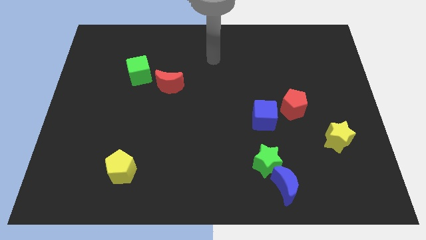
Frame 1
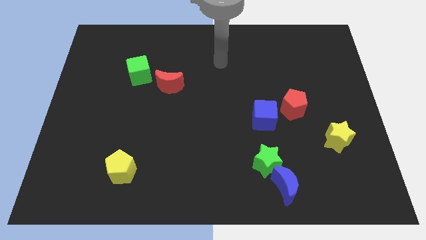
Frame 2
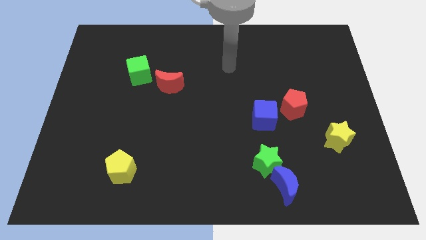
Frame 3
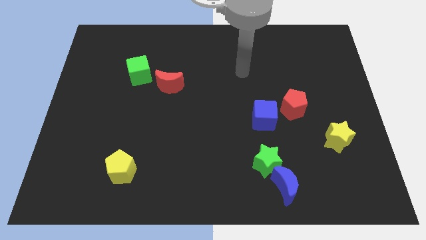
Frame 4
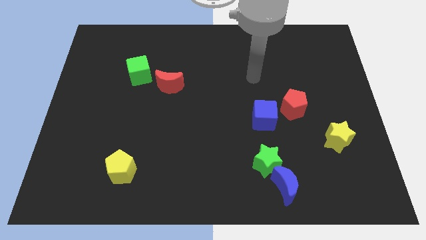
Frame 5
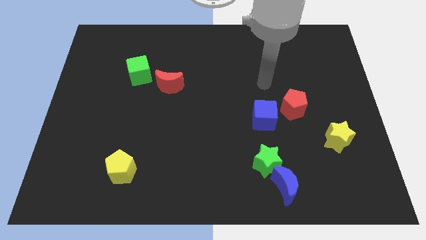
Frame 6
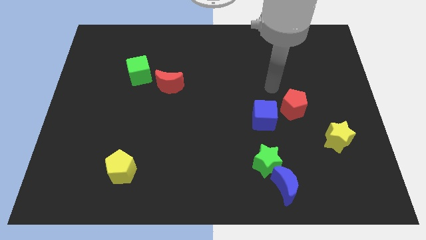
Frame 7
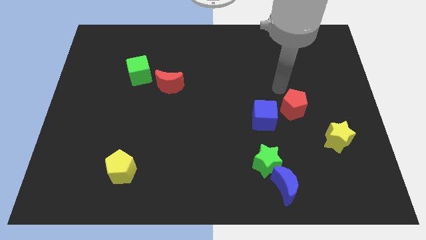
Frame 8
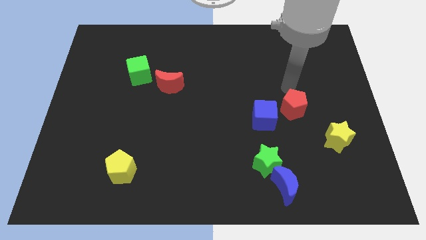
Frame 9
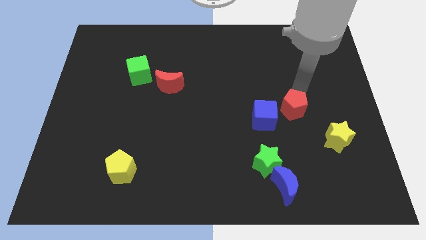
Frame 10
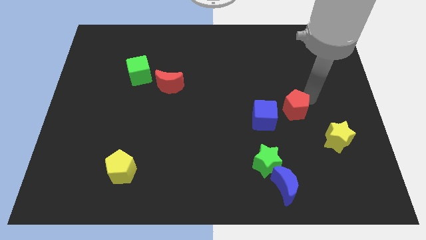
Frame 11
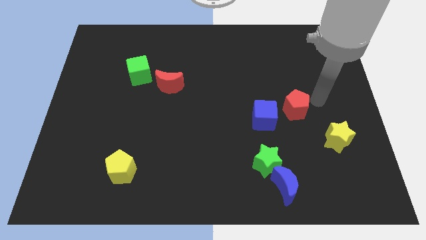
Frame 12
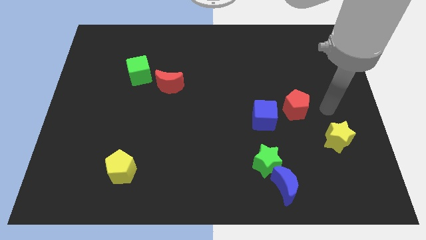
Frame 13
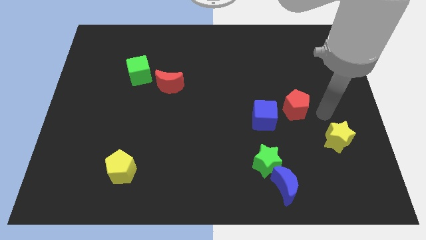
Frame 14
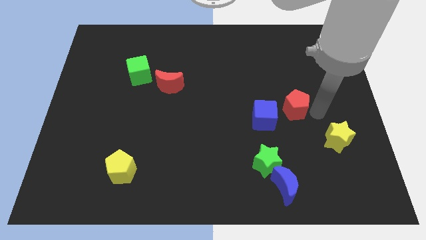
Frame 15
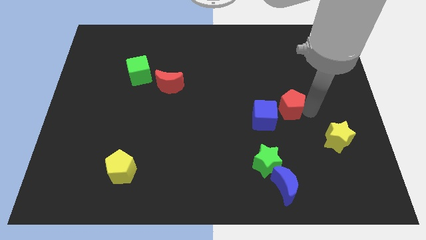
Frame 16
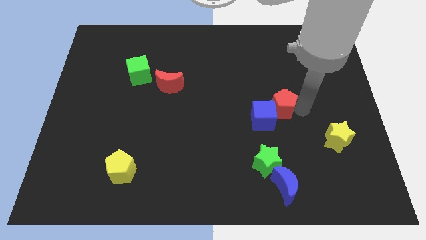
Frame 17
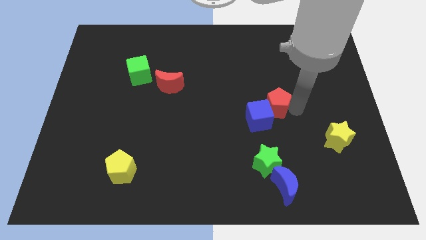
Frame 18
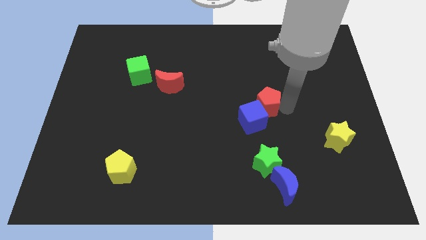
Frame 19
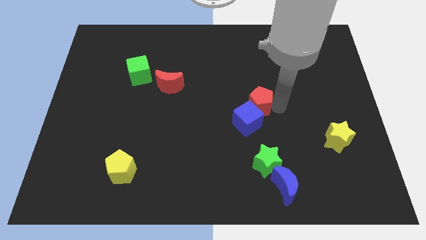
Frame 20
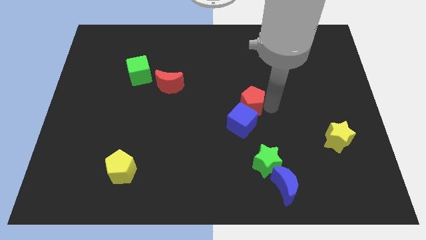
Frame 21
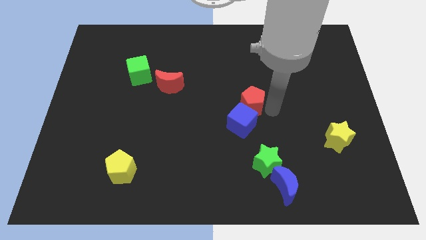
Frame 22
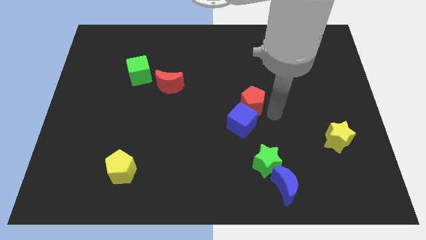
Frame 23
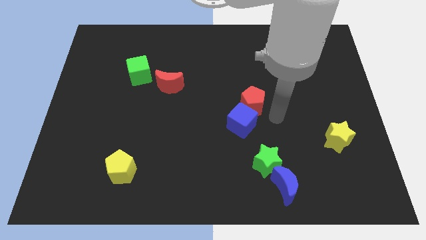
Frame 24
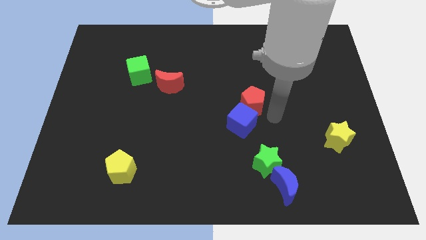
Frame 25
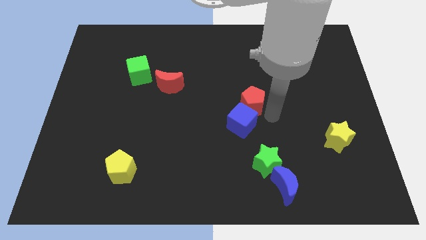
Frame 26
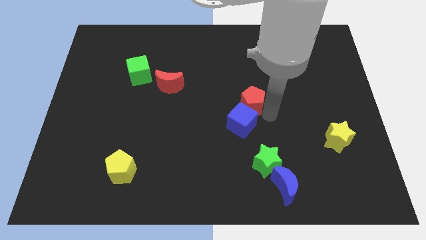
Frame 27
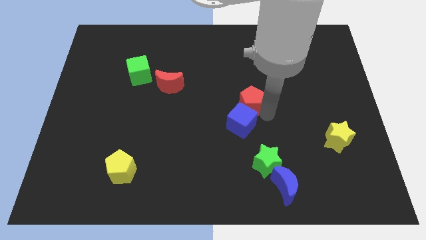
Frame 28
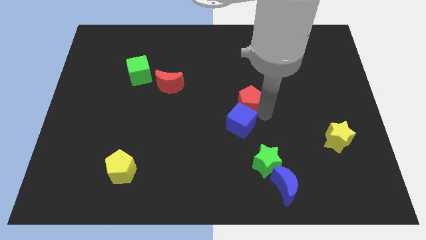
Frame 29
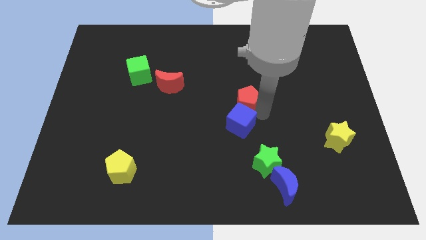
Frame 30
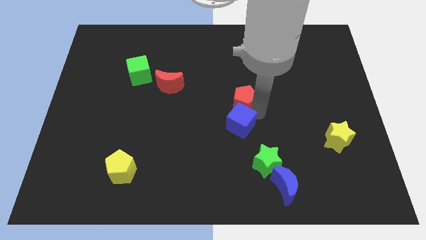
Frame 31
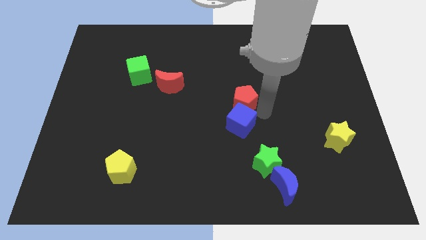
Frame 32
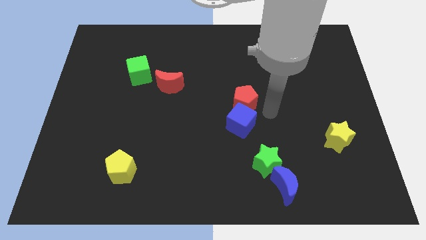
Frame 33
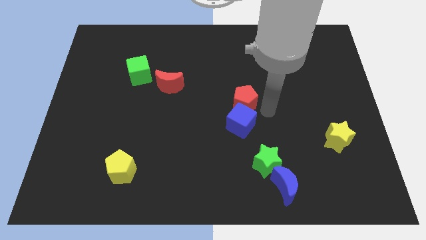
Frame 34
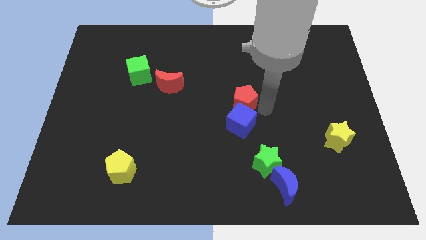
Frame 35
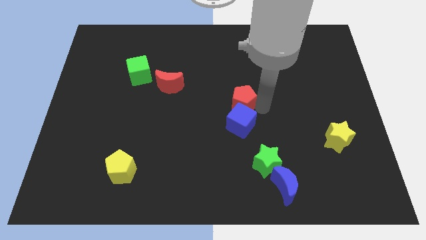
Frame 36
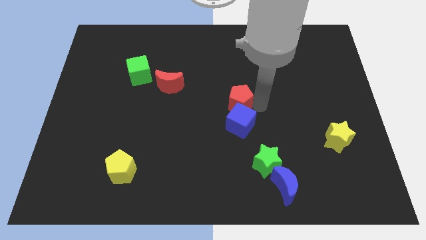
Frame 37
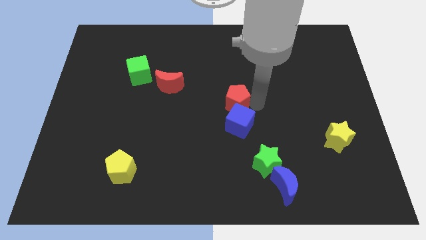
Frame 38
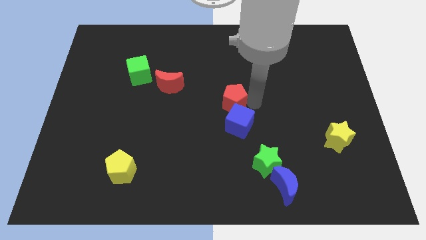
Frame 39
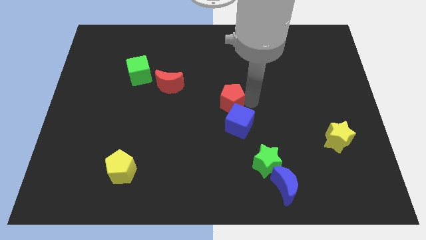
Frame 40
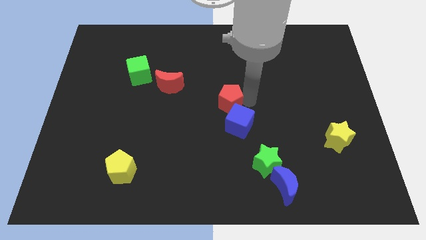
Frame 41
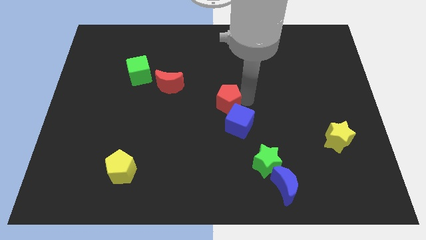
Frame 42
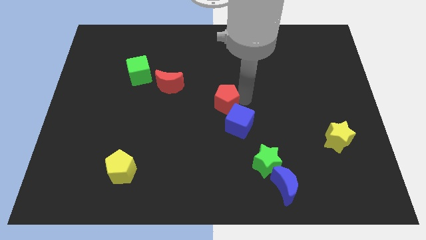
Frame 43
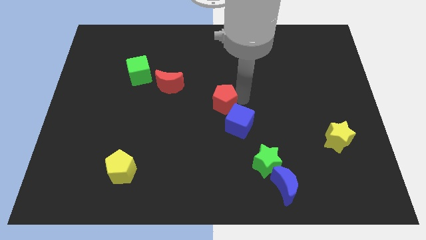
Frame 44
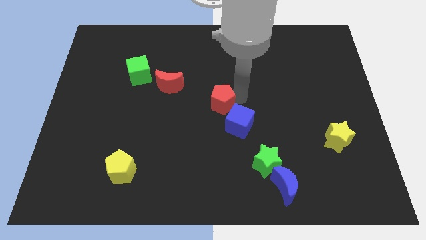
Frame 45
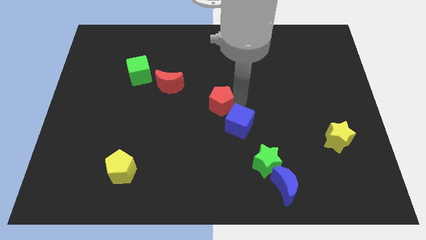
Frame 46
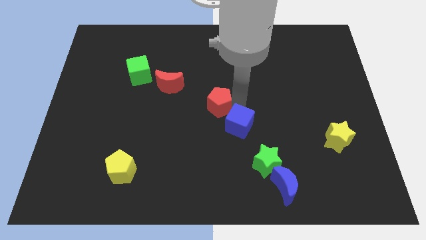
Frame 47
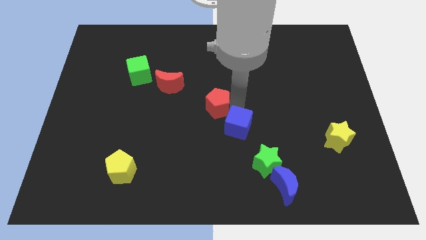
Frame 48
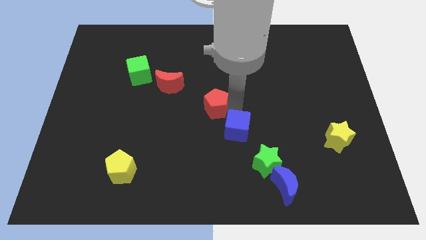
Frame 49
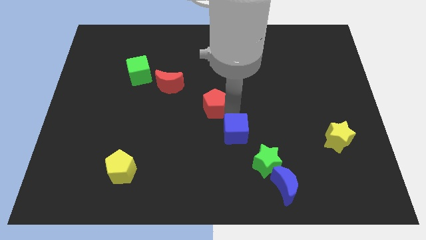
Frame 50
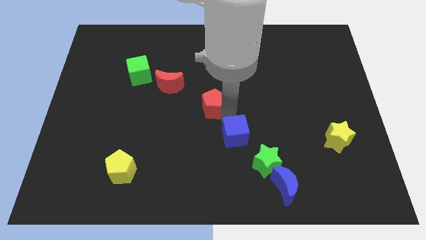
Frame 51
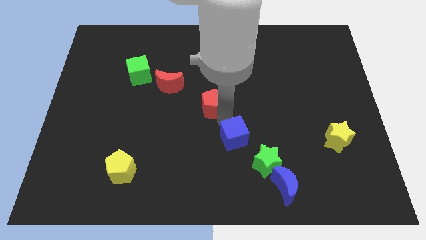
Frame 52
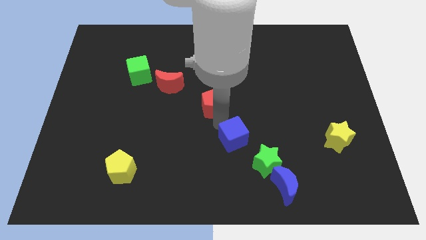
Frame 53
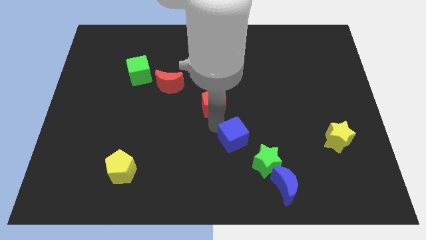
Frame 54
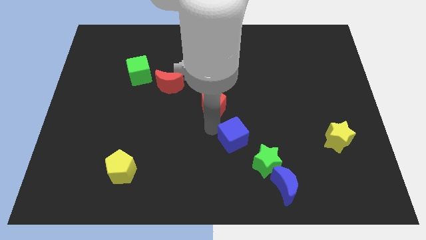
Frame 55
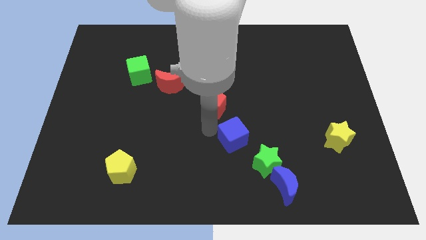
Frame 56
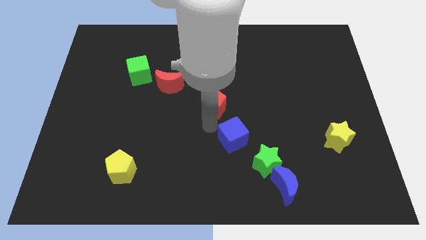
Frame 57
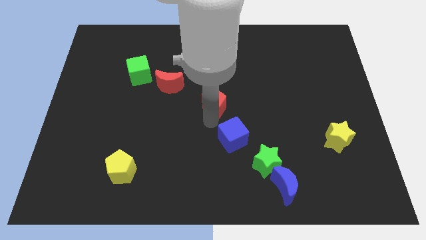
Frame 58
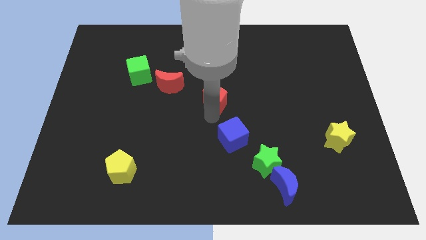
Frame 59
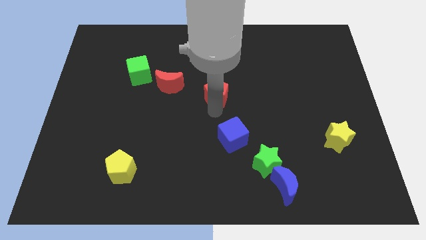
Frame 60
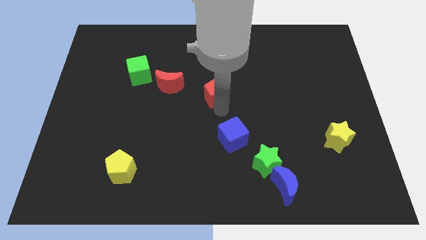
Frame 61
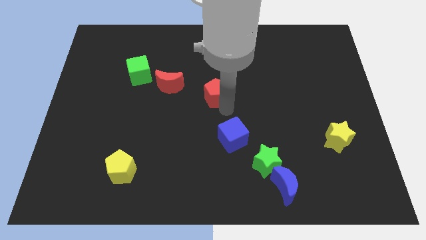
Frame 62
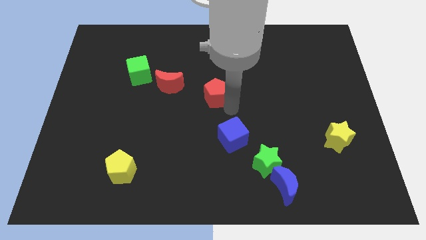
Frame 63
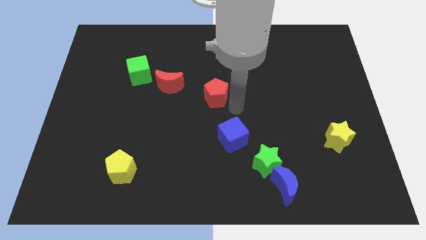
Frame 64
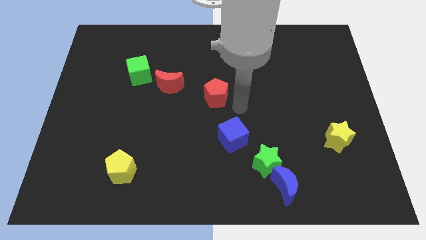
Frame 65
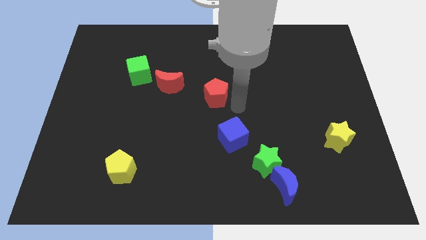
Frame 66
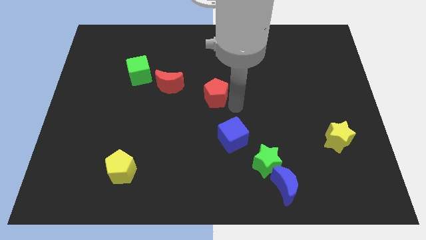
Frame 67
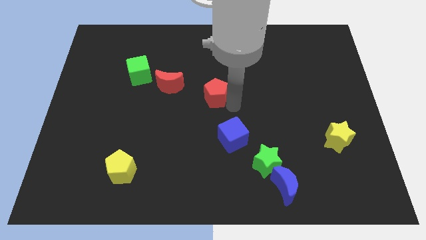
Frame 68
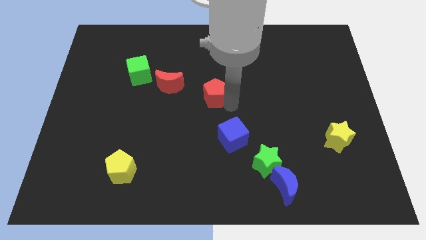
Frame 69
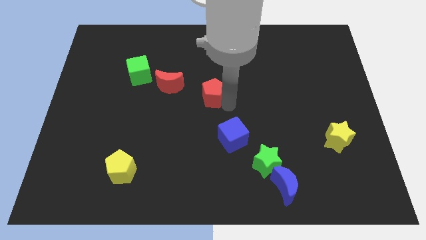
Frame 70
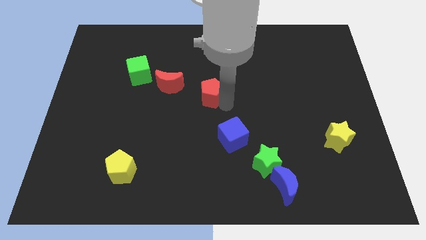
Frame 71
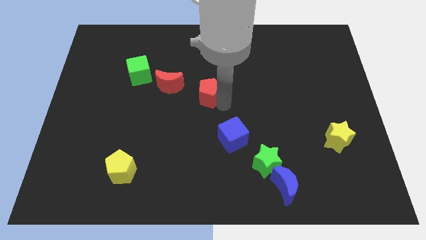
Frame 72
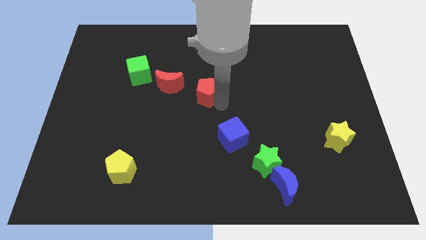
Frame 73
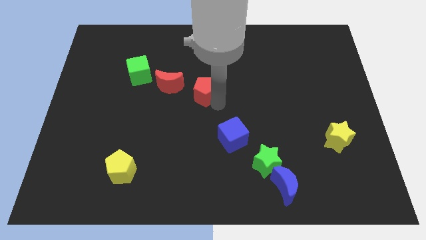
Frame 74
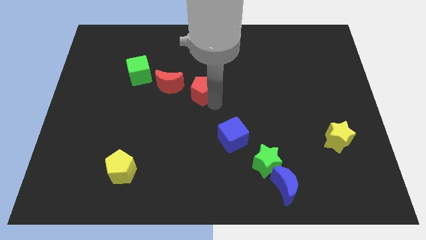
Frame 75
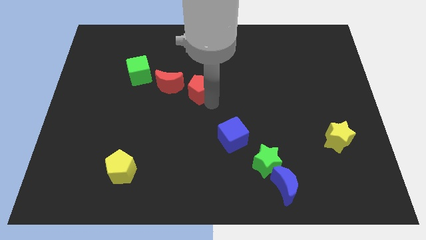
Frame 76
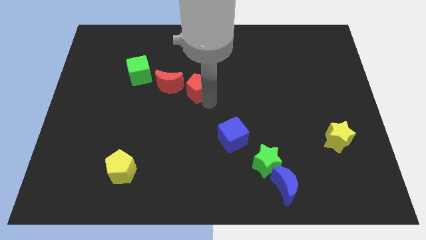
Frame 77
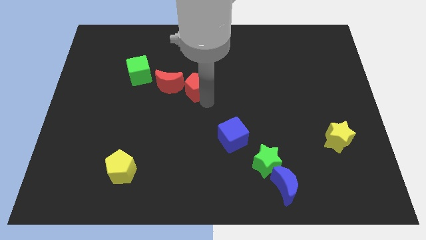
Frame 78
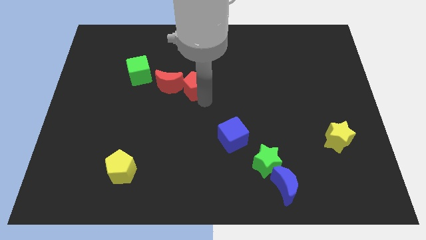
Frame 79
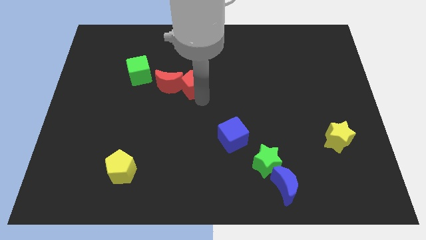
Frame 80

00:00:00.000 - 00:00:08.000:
put the red pentagon towards the red moon
